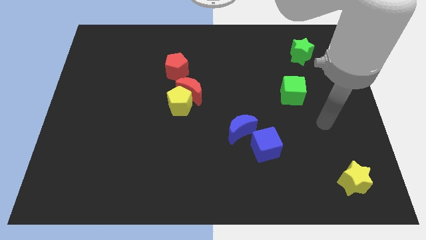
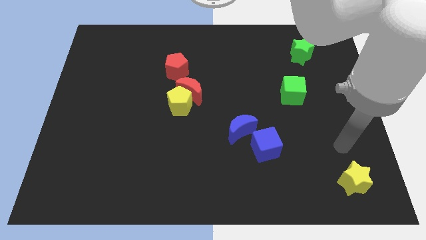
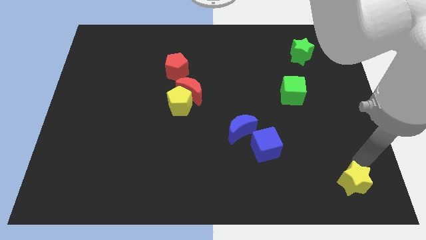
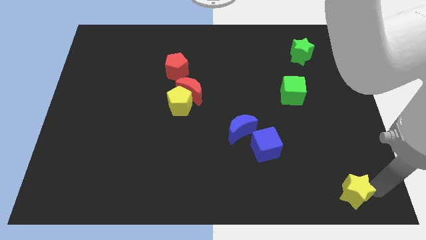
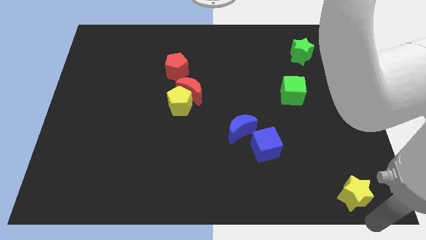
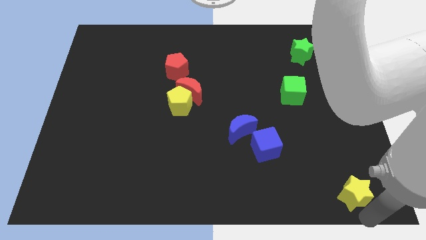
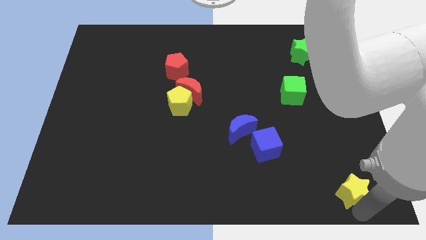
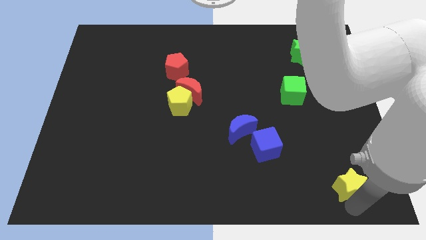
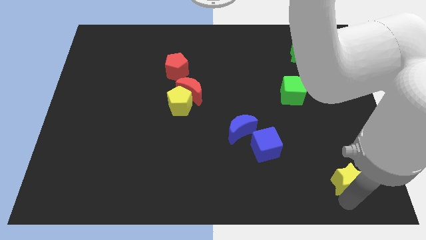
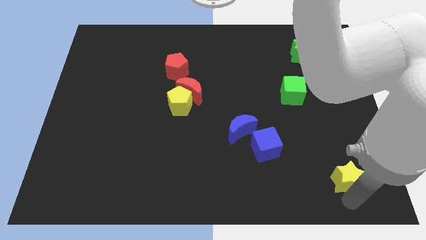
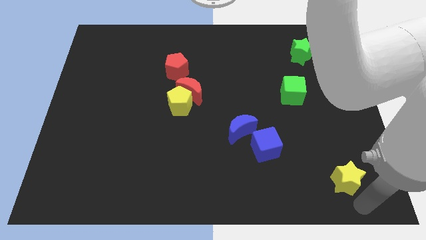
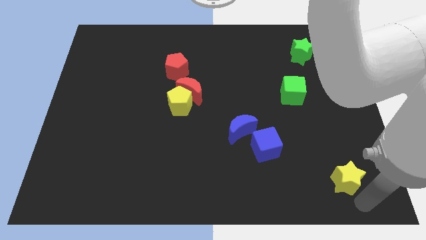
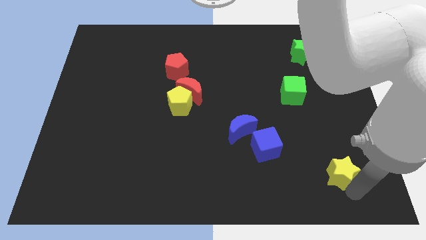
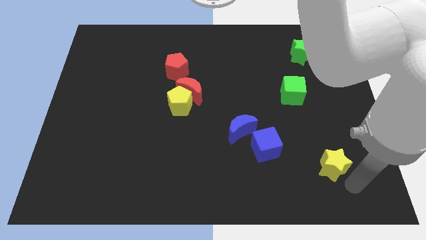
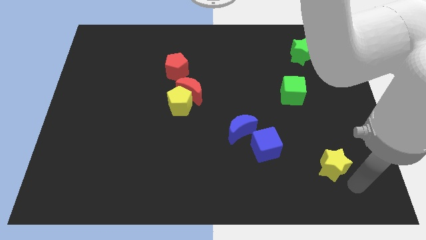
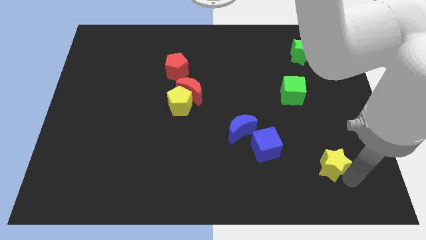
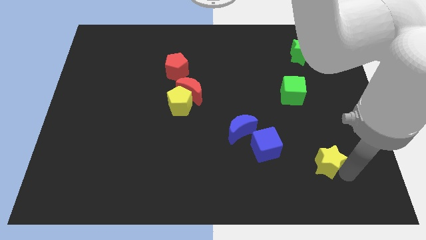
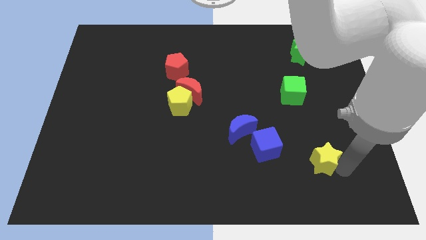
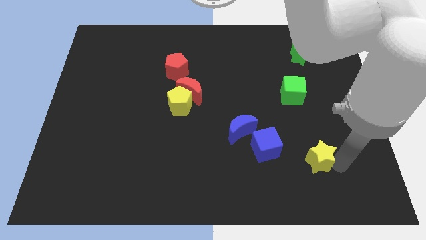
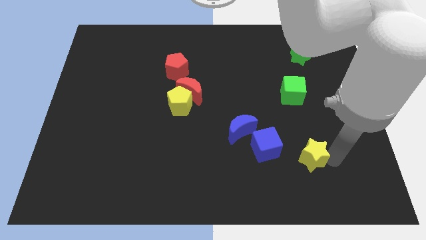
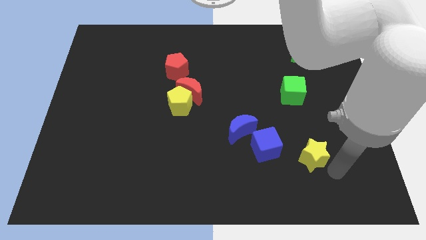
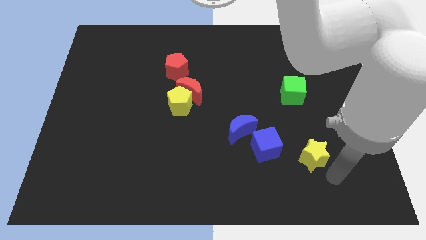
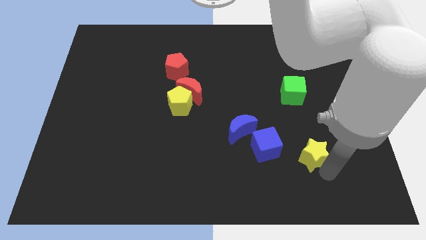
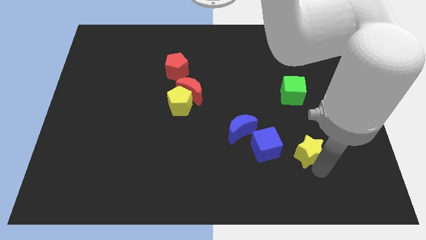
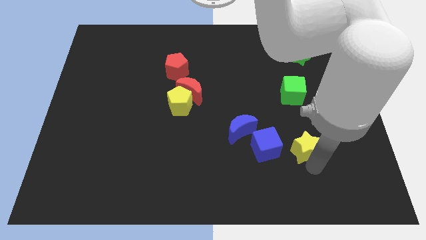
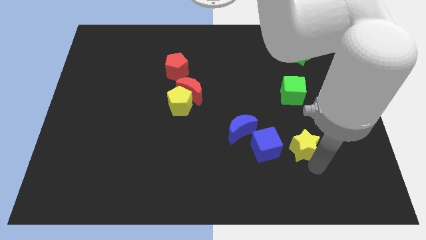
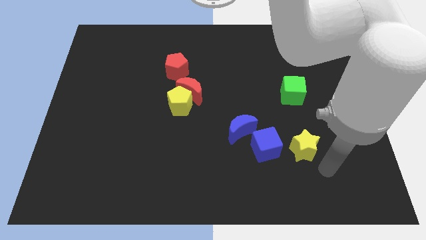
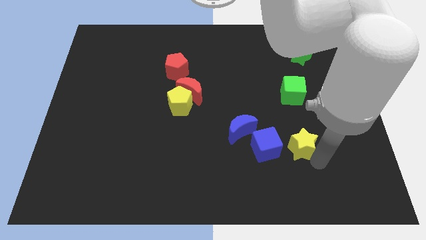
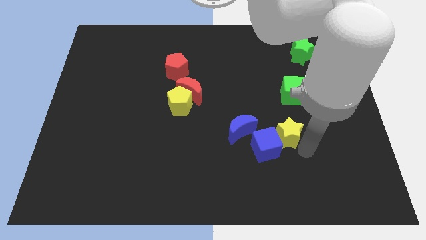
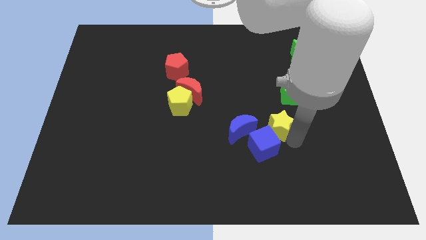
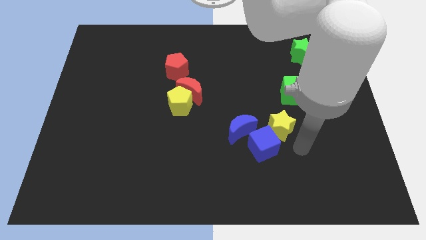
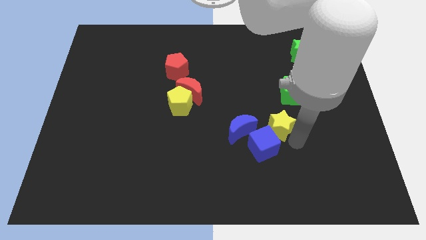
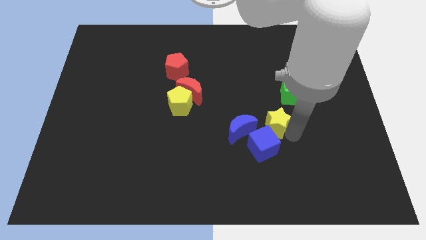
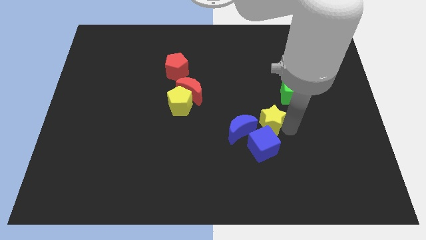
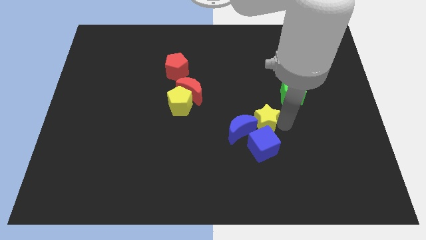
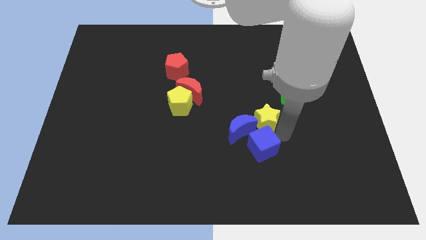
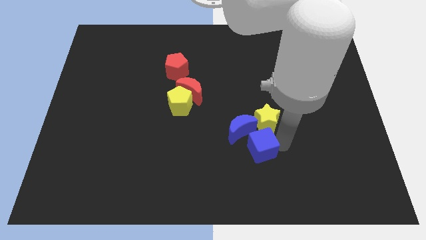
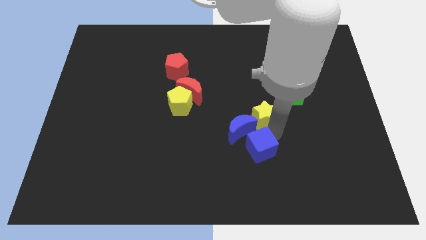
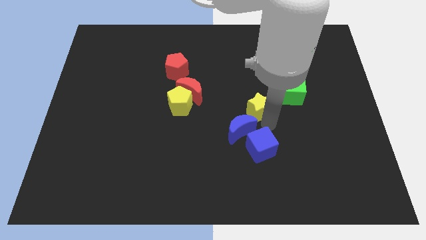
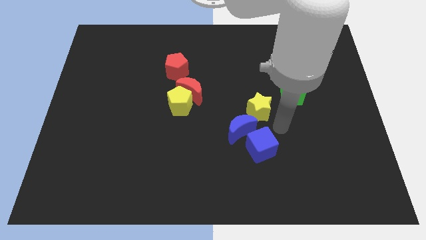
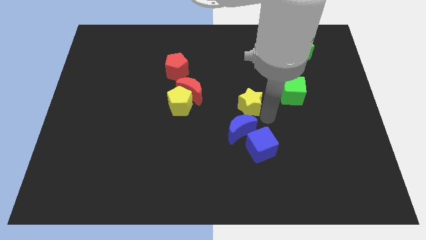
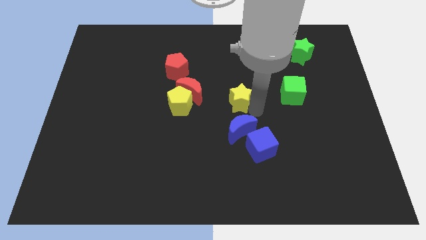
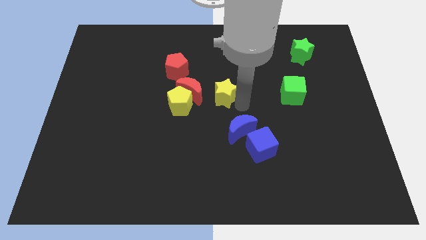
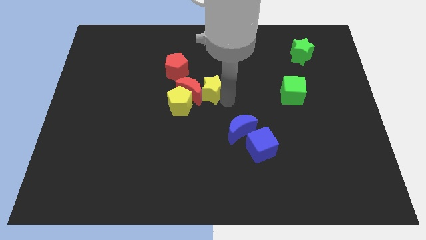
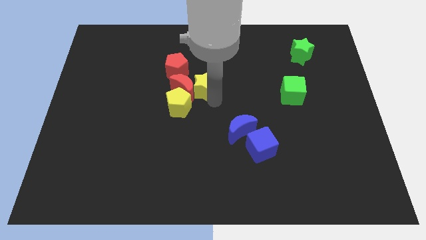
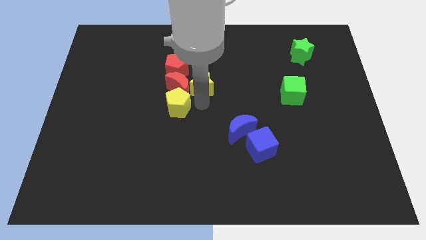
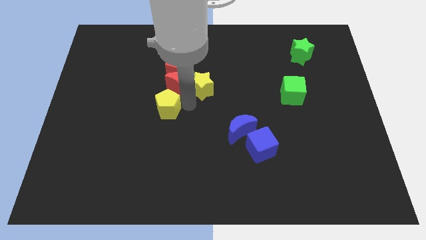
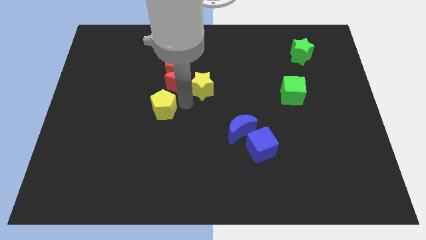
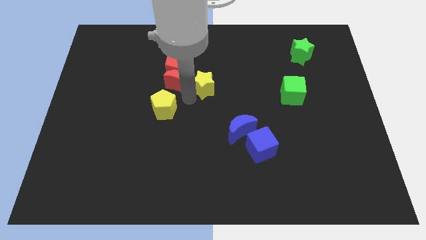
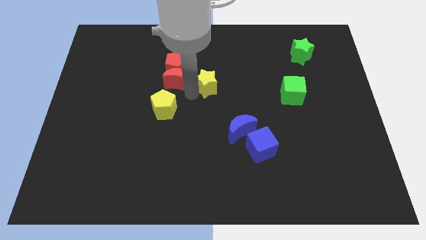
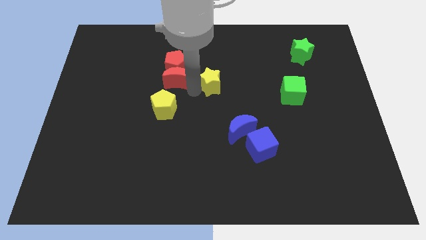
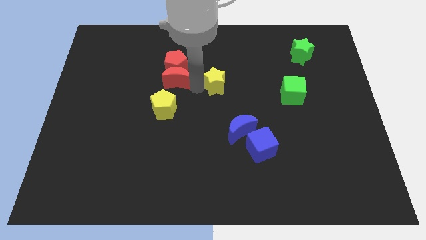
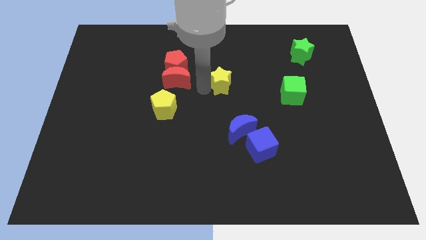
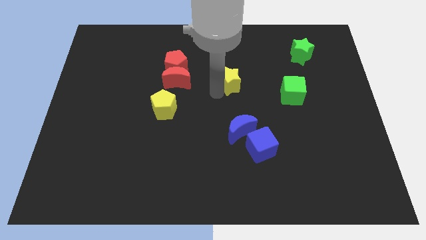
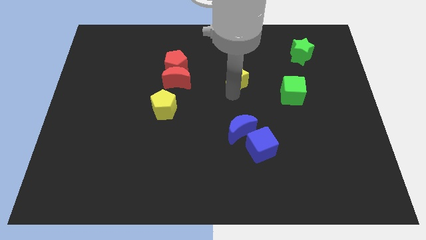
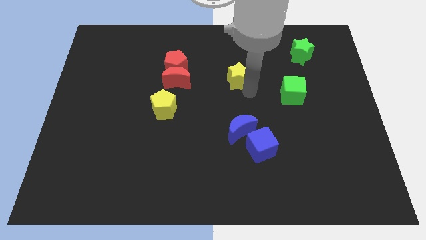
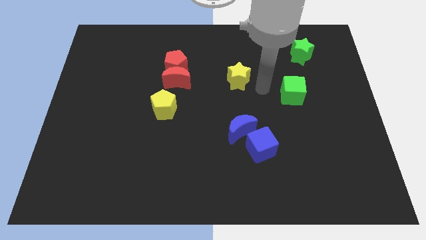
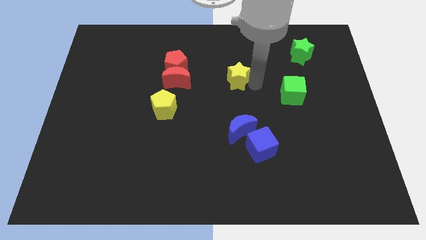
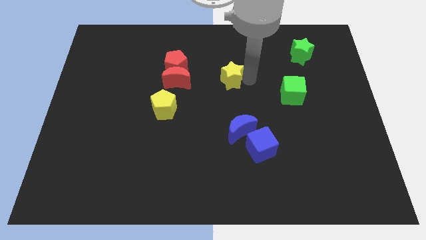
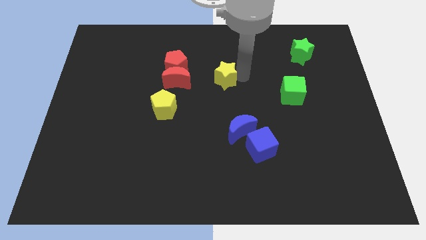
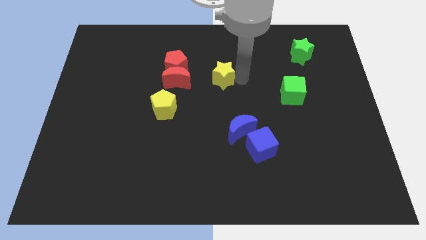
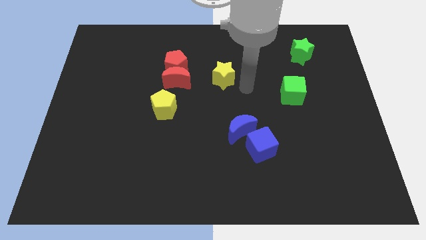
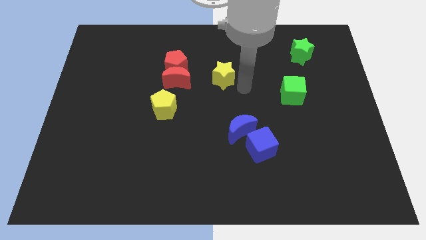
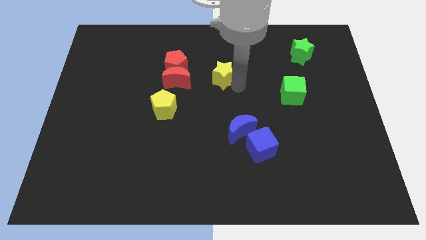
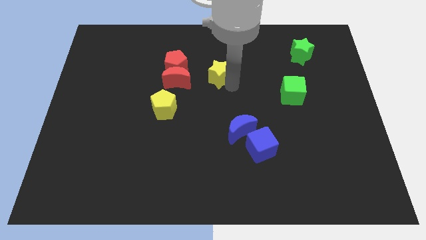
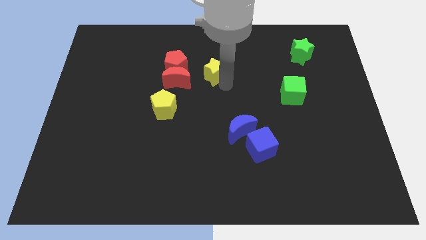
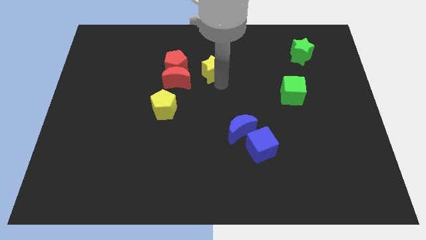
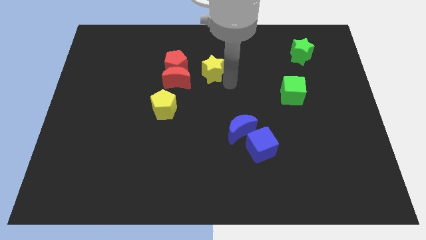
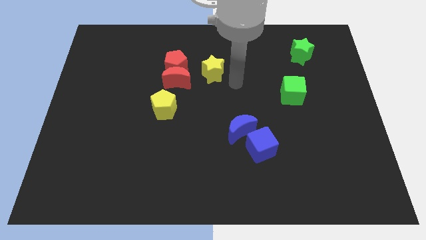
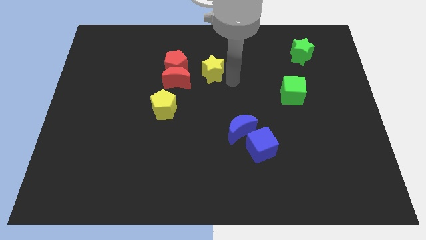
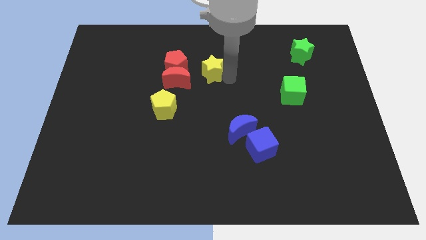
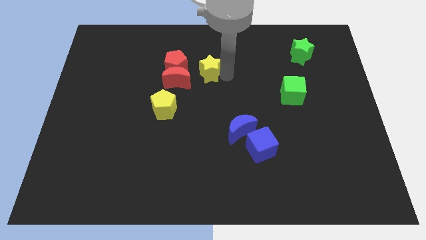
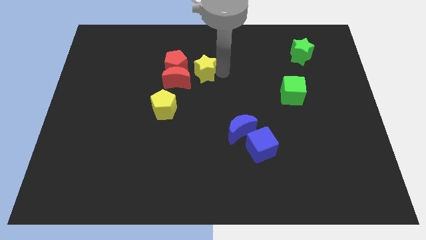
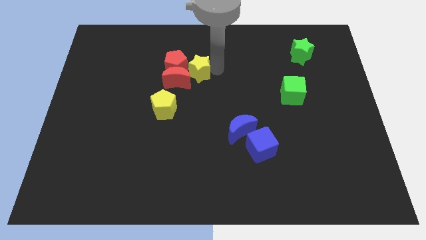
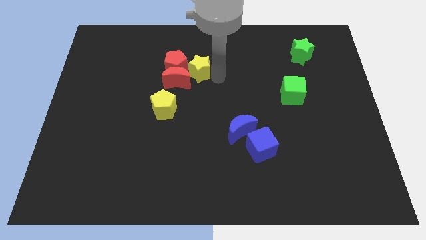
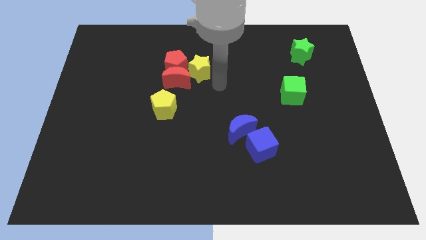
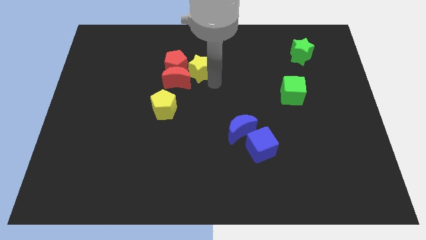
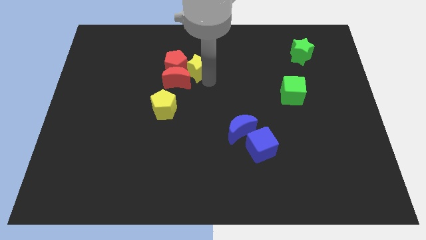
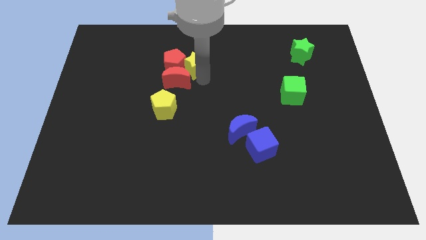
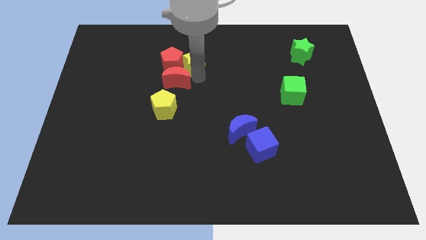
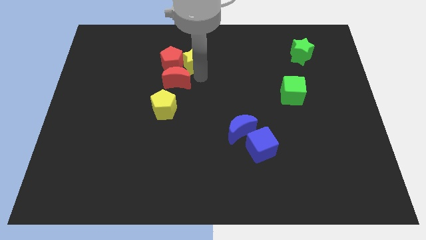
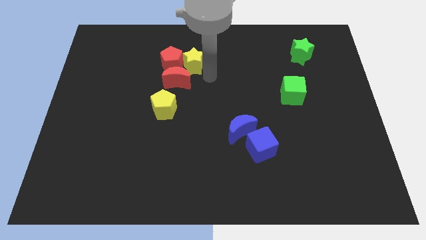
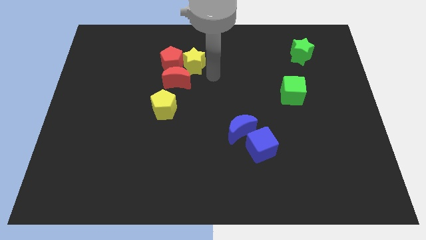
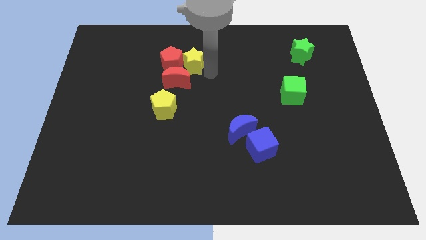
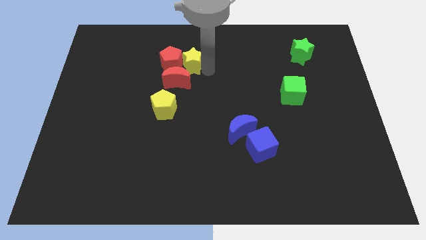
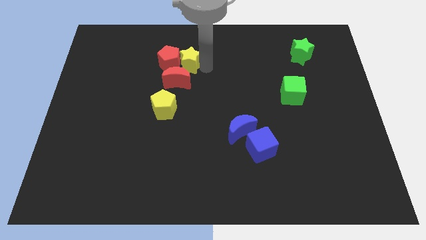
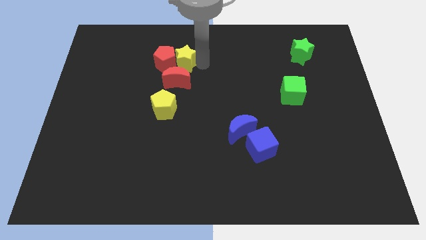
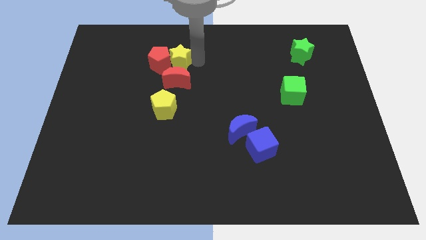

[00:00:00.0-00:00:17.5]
push the yellow star to the top of the yellow pentagon
